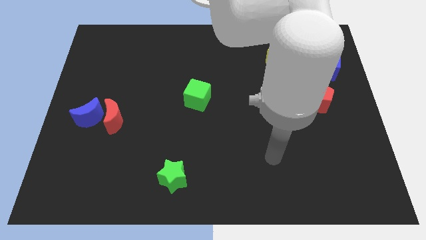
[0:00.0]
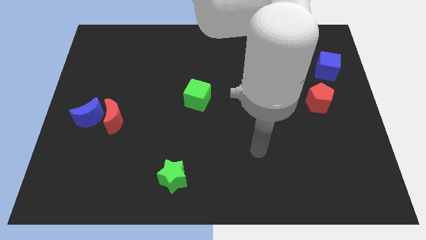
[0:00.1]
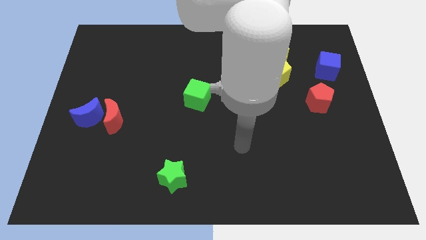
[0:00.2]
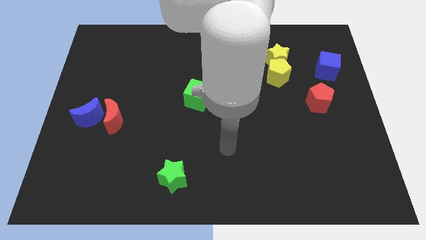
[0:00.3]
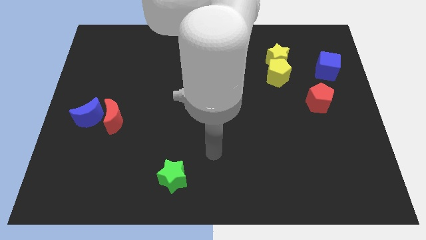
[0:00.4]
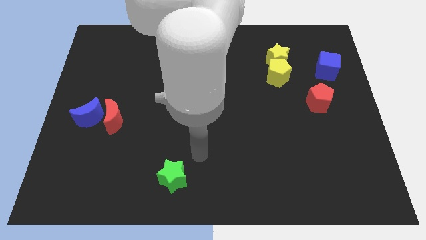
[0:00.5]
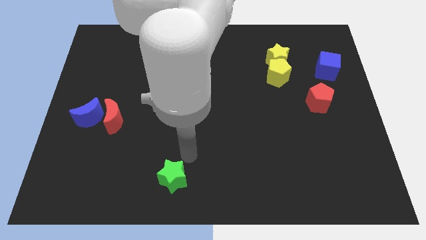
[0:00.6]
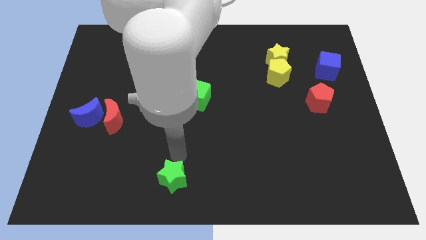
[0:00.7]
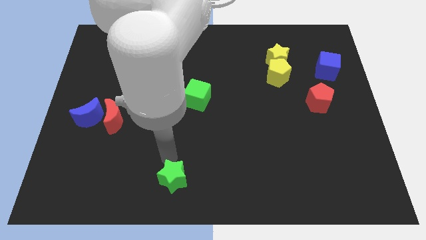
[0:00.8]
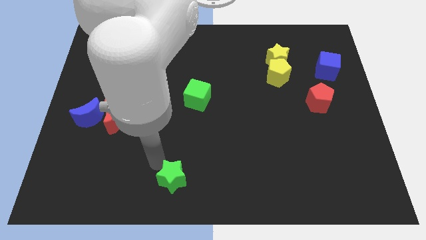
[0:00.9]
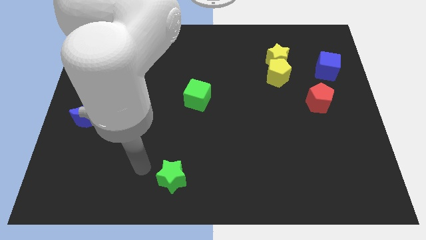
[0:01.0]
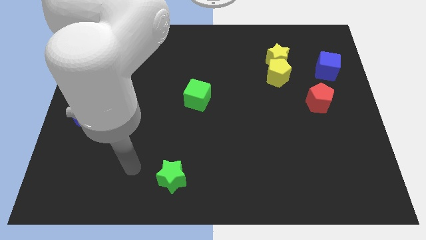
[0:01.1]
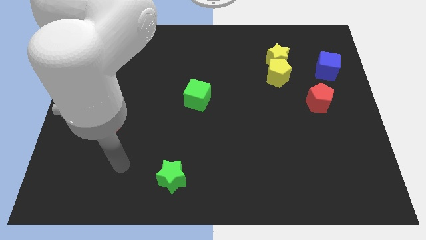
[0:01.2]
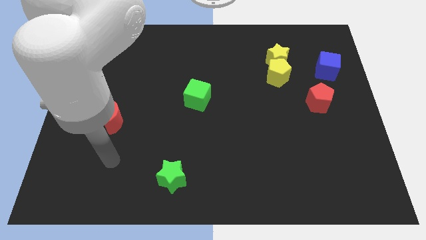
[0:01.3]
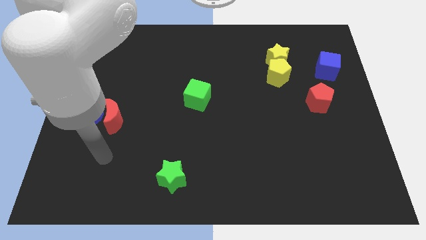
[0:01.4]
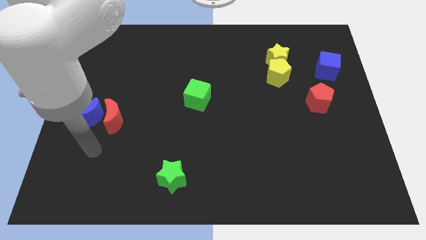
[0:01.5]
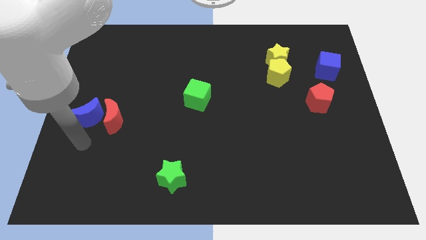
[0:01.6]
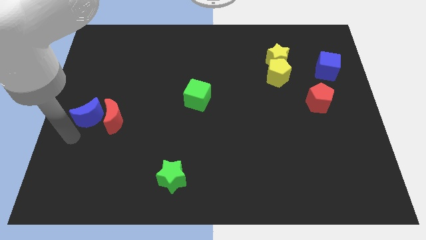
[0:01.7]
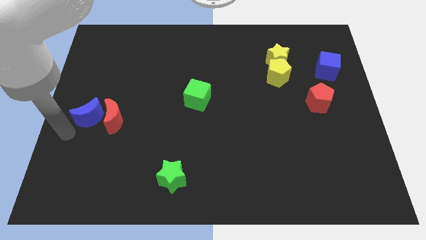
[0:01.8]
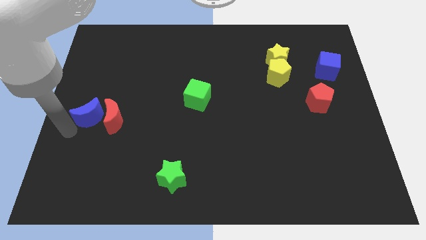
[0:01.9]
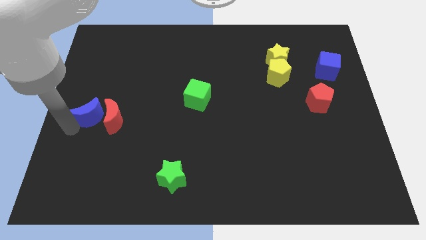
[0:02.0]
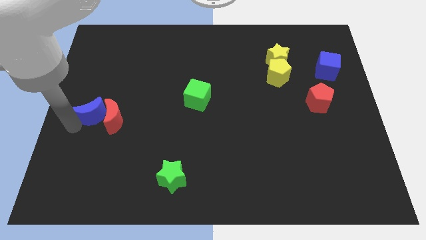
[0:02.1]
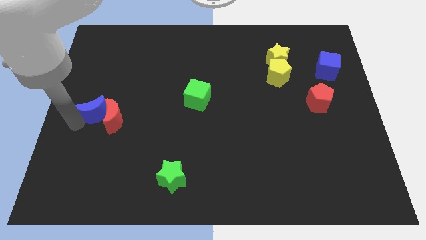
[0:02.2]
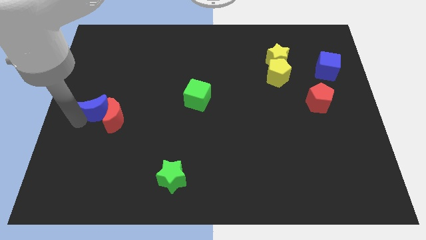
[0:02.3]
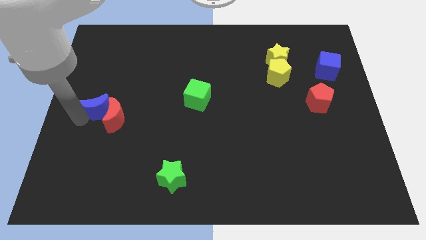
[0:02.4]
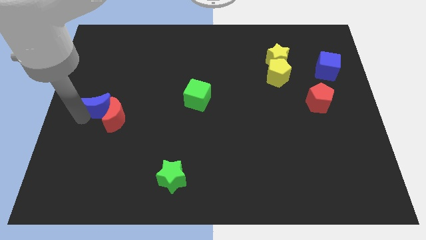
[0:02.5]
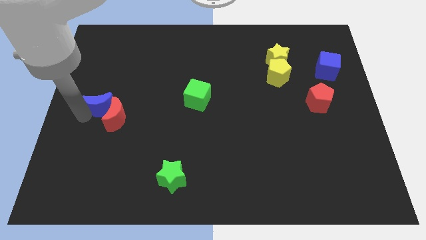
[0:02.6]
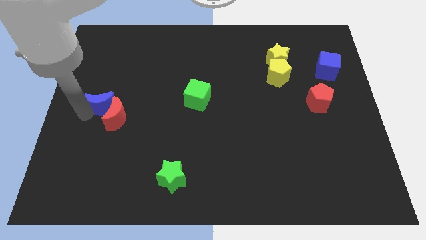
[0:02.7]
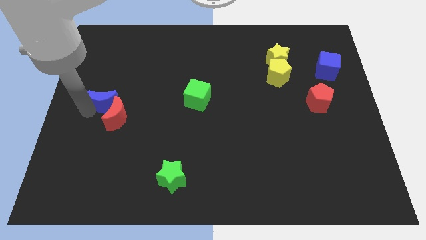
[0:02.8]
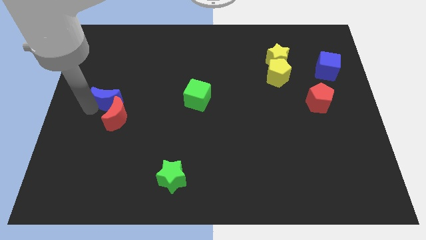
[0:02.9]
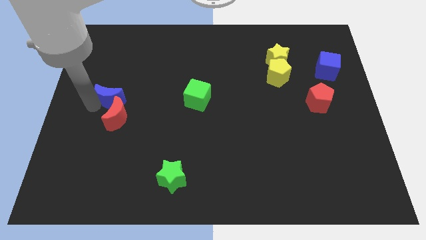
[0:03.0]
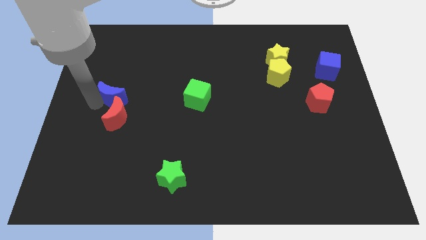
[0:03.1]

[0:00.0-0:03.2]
slide the blue moon upwards and right a bit

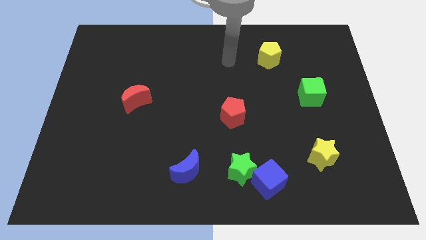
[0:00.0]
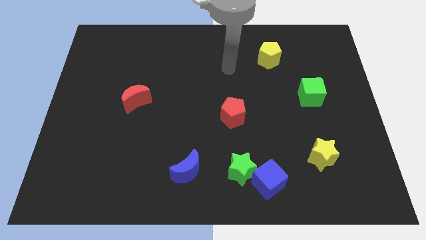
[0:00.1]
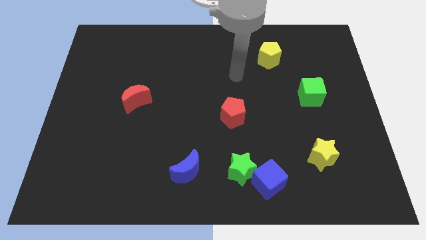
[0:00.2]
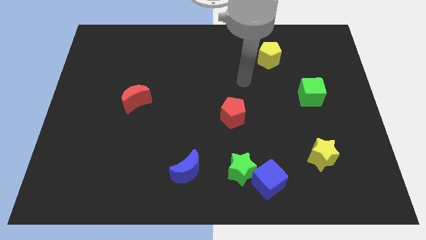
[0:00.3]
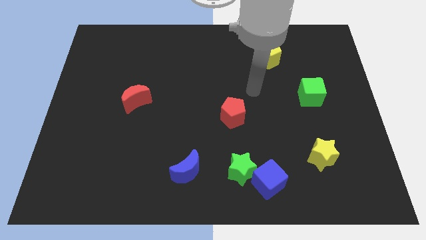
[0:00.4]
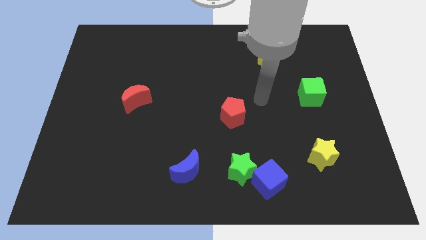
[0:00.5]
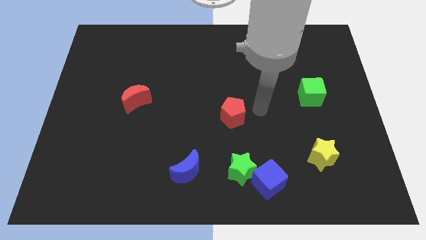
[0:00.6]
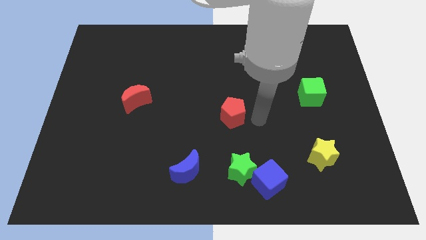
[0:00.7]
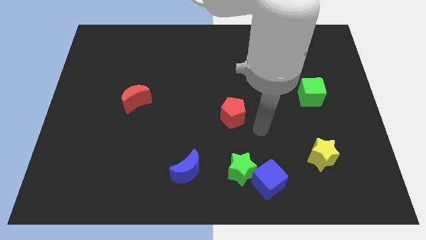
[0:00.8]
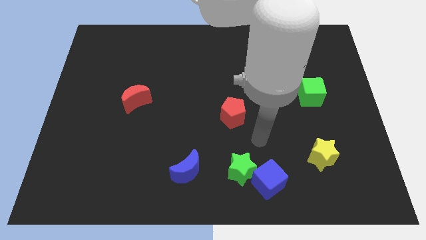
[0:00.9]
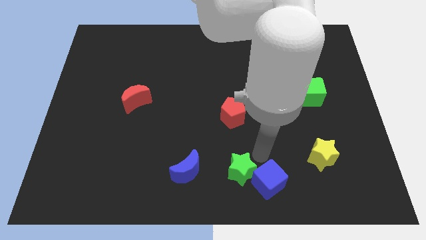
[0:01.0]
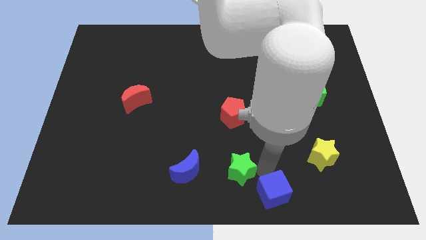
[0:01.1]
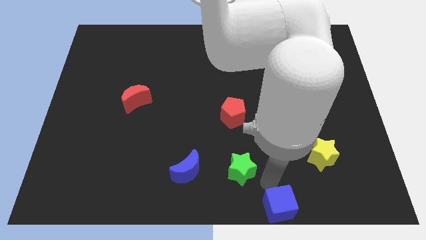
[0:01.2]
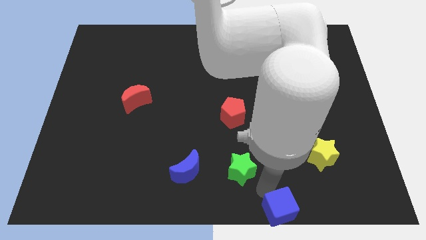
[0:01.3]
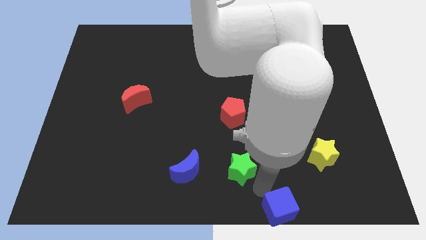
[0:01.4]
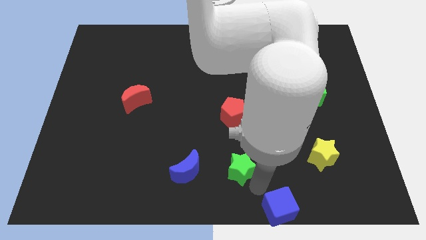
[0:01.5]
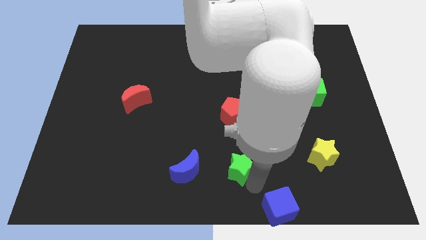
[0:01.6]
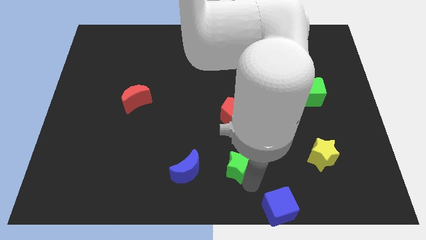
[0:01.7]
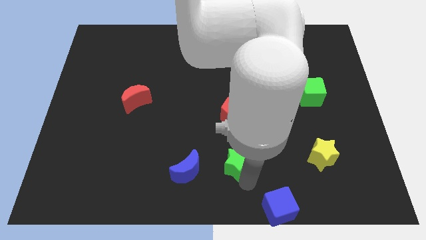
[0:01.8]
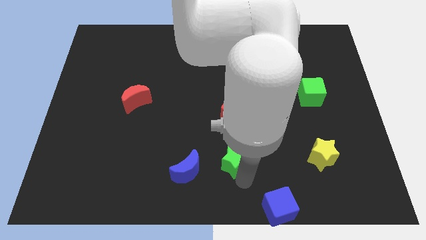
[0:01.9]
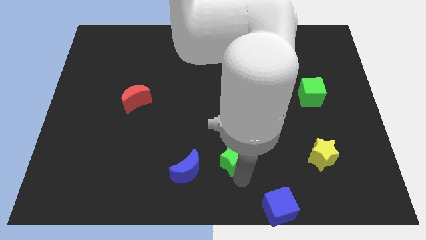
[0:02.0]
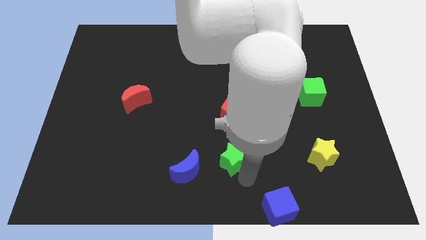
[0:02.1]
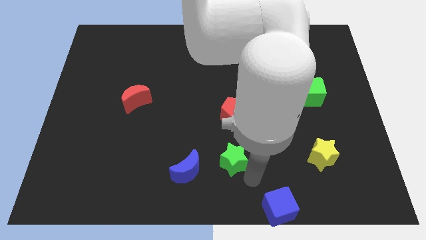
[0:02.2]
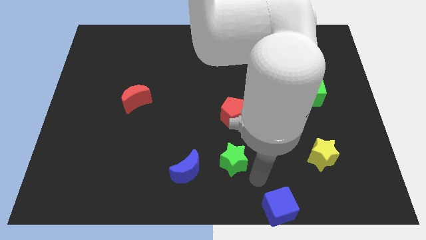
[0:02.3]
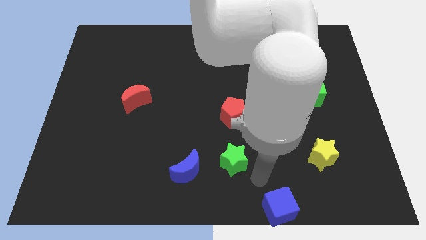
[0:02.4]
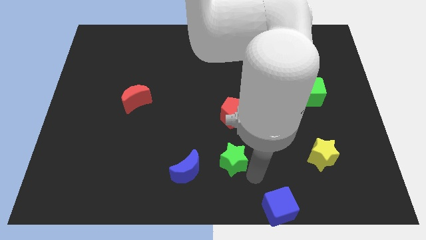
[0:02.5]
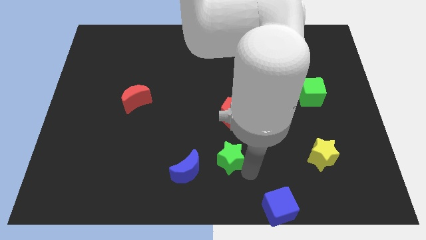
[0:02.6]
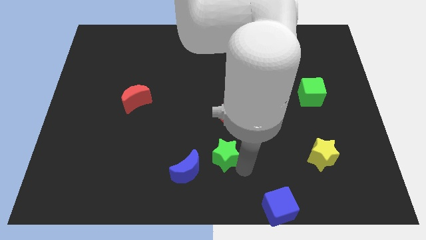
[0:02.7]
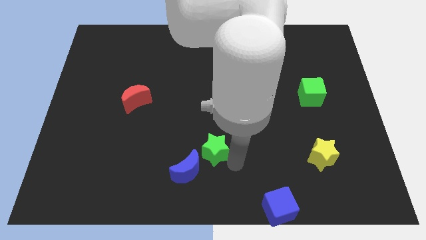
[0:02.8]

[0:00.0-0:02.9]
move the green star a little upwards and left diagonally

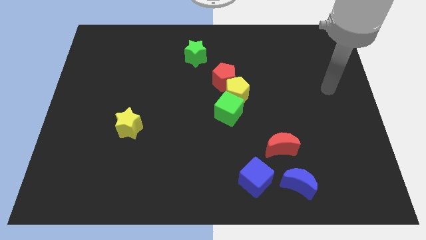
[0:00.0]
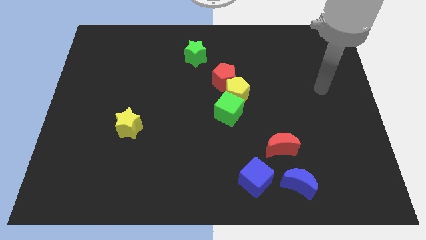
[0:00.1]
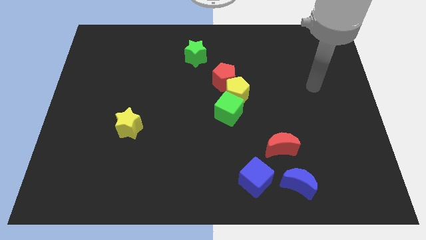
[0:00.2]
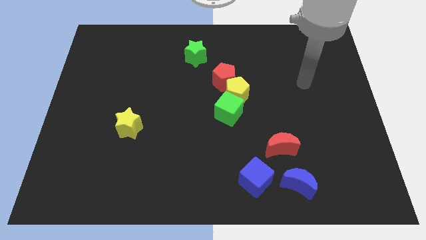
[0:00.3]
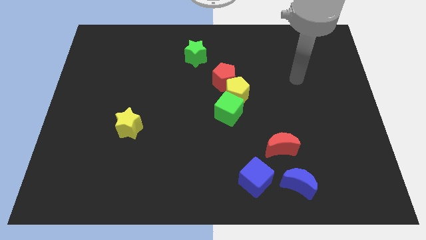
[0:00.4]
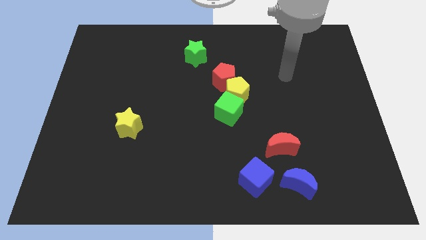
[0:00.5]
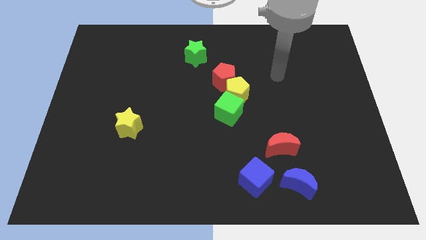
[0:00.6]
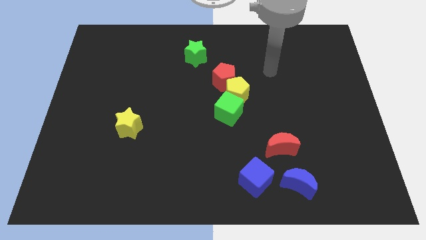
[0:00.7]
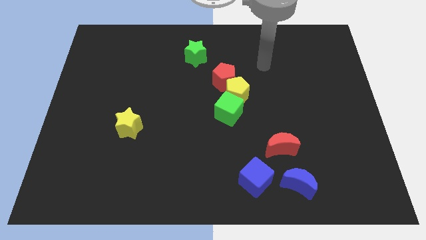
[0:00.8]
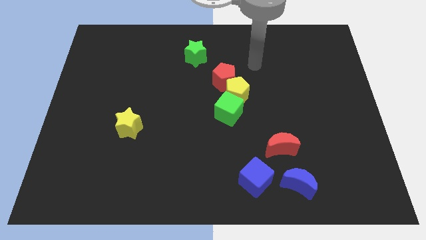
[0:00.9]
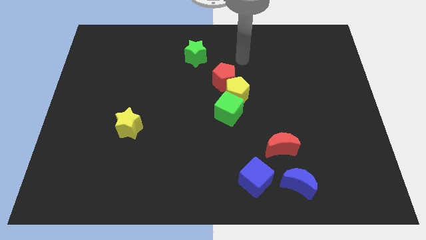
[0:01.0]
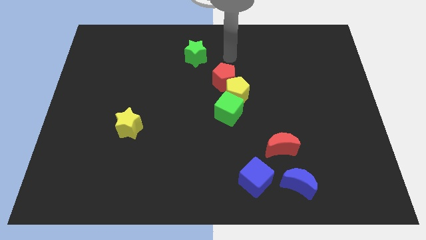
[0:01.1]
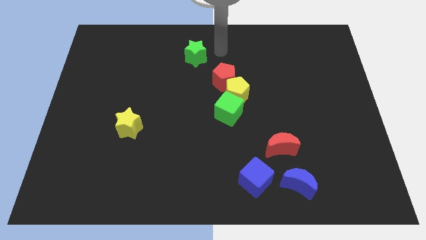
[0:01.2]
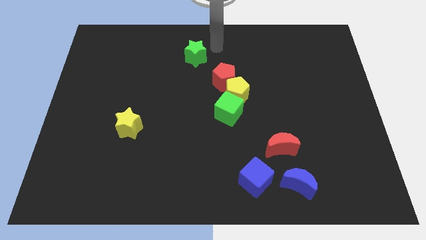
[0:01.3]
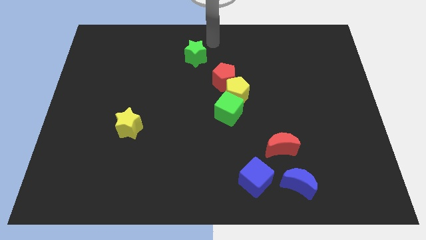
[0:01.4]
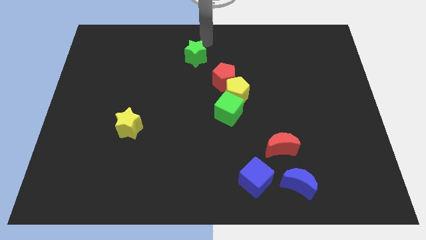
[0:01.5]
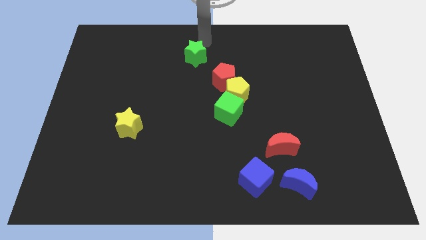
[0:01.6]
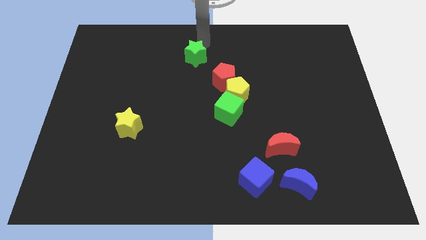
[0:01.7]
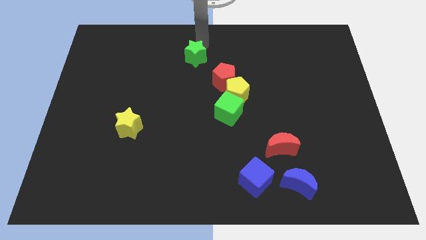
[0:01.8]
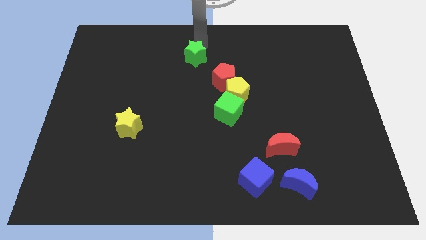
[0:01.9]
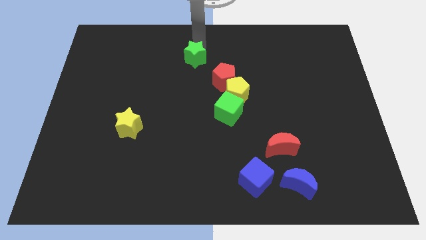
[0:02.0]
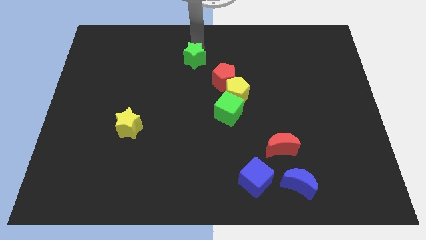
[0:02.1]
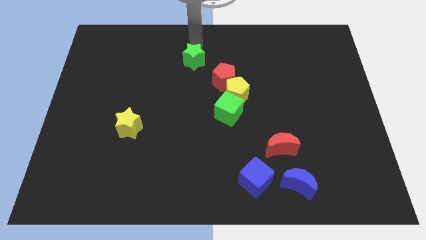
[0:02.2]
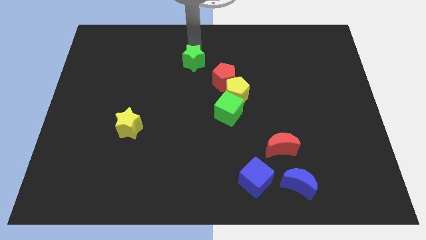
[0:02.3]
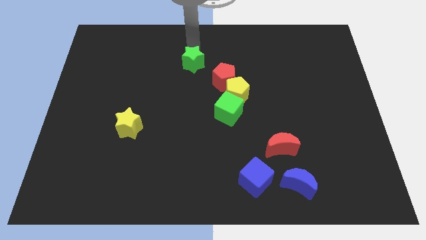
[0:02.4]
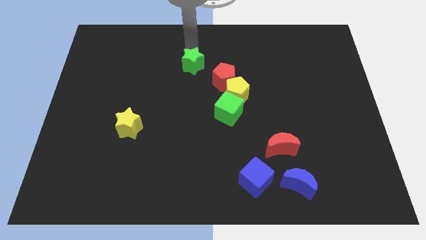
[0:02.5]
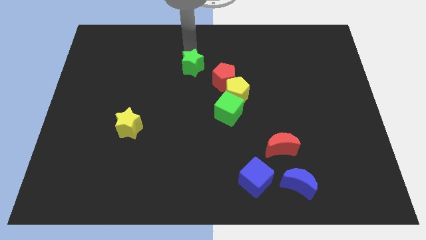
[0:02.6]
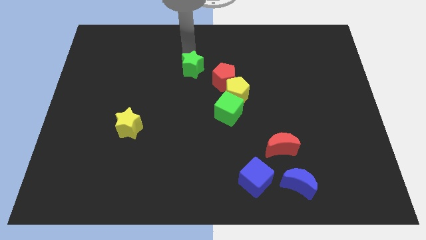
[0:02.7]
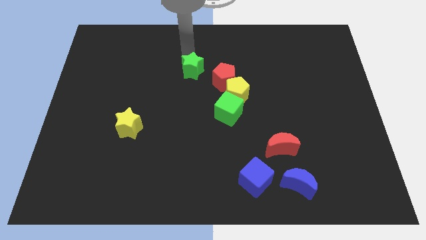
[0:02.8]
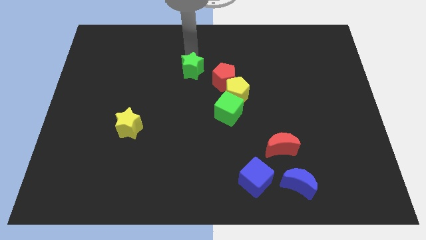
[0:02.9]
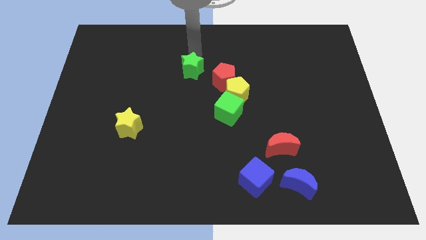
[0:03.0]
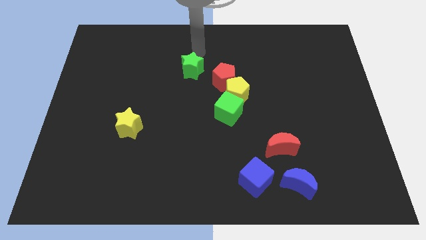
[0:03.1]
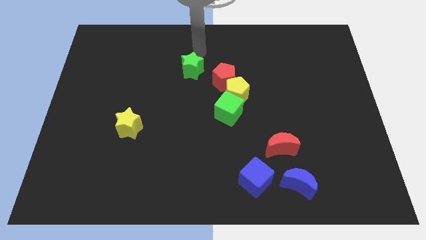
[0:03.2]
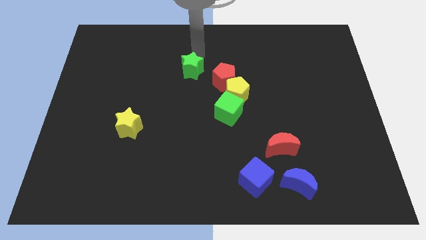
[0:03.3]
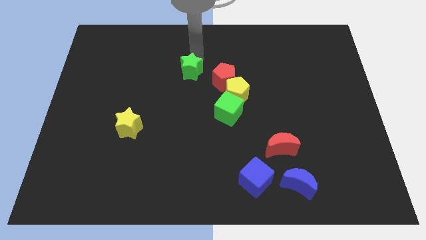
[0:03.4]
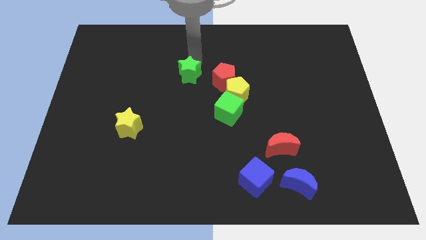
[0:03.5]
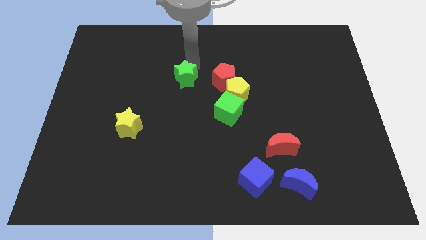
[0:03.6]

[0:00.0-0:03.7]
push the green star down a little bit
